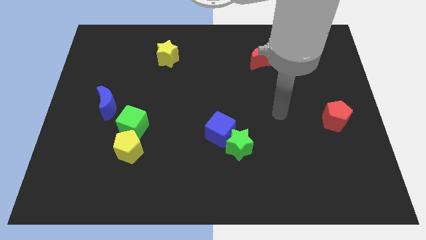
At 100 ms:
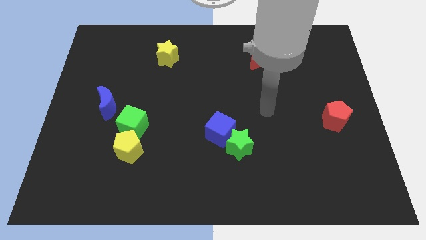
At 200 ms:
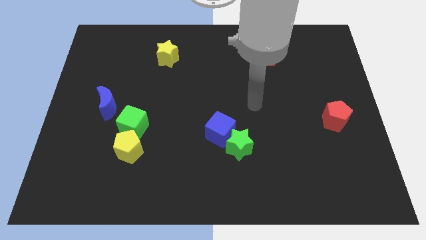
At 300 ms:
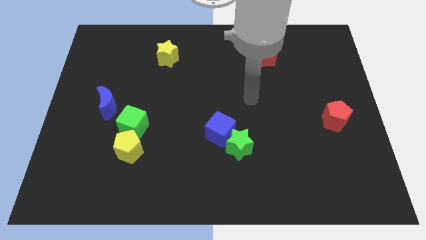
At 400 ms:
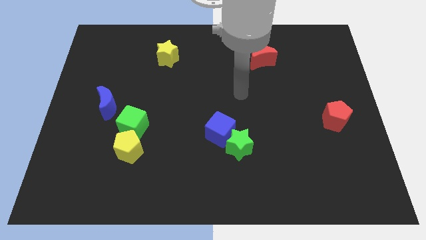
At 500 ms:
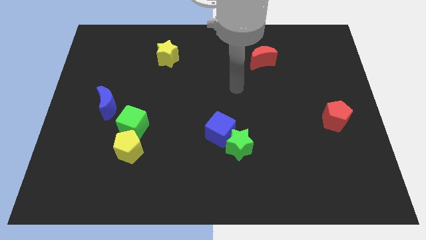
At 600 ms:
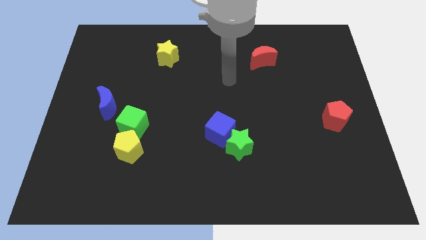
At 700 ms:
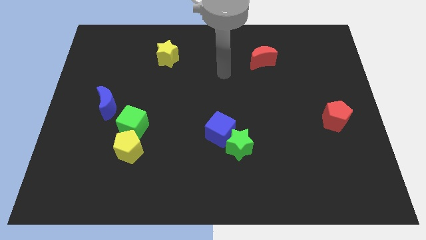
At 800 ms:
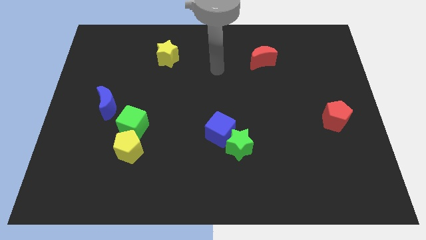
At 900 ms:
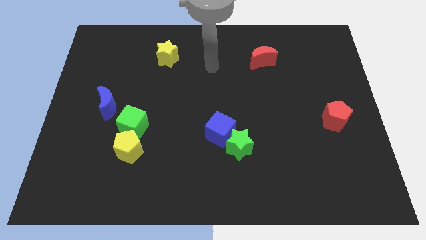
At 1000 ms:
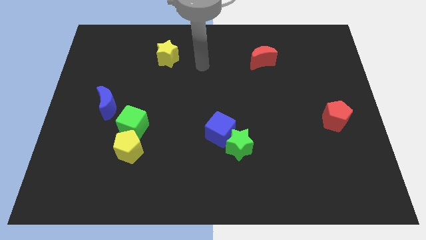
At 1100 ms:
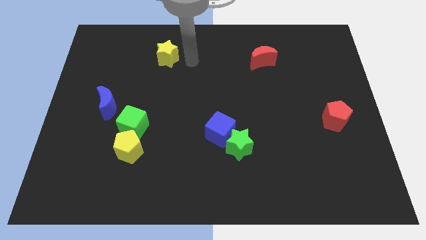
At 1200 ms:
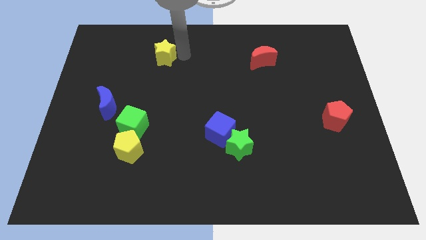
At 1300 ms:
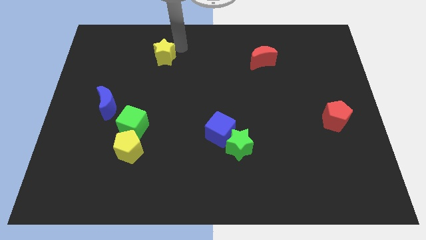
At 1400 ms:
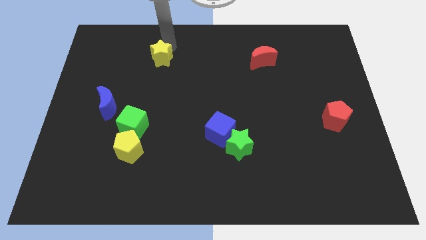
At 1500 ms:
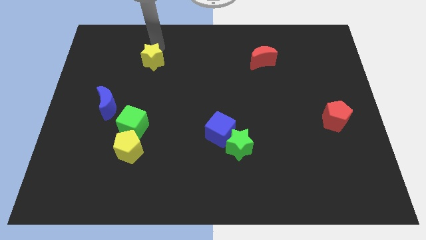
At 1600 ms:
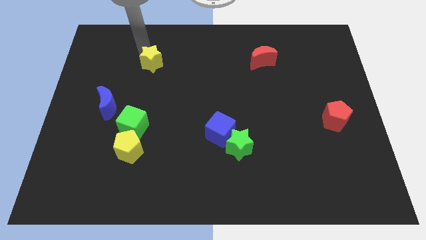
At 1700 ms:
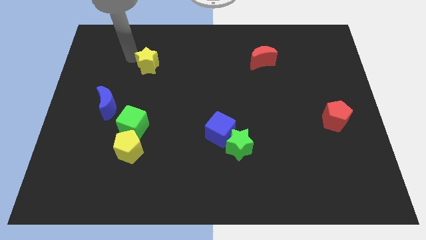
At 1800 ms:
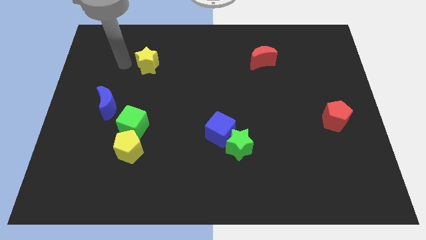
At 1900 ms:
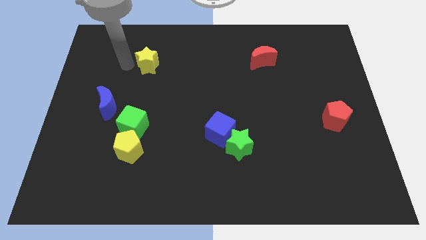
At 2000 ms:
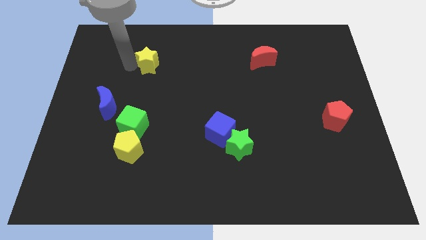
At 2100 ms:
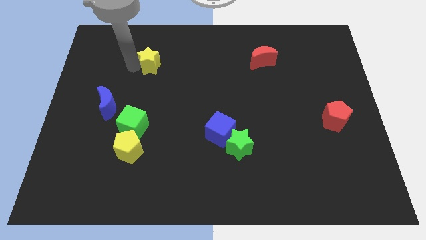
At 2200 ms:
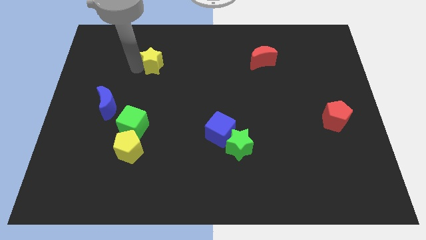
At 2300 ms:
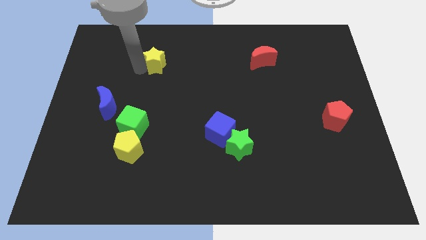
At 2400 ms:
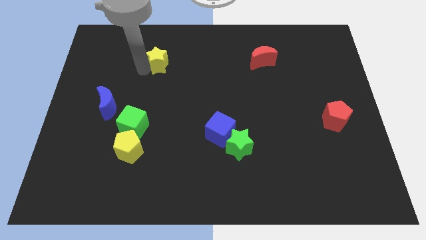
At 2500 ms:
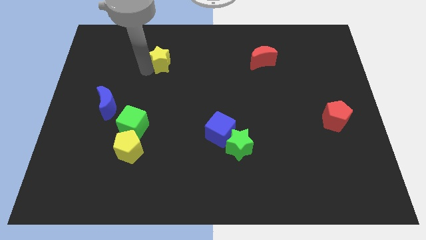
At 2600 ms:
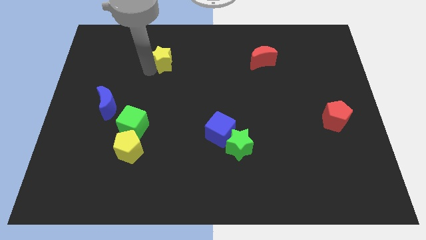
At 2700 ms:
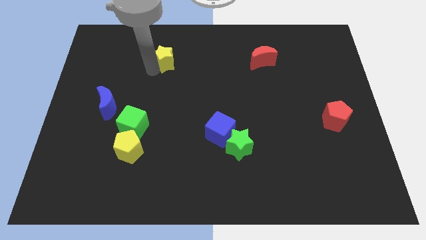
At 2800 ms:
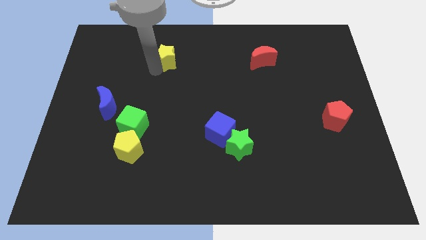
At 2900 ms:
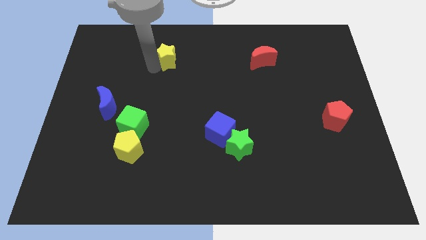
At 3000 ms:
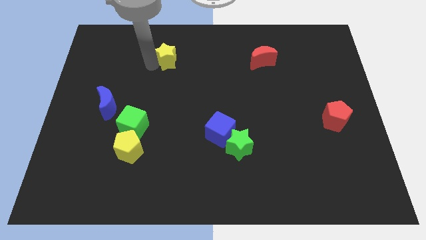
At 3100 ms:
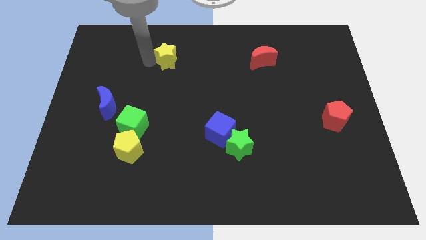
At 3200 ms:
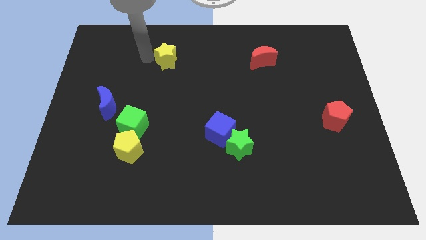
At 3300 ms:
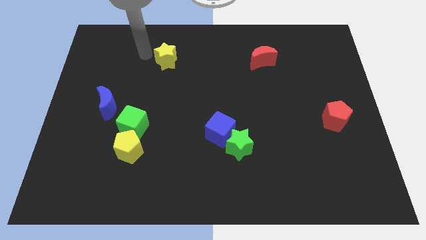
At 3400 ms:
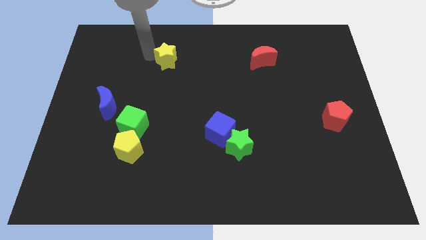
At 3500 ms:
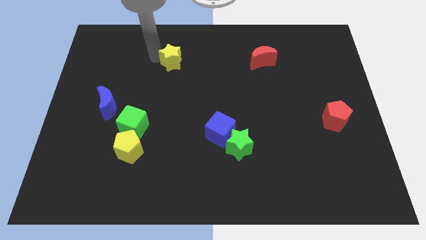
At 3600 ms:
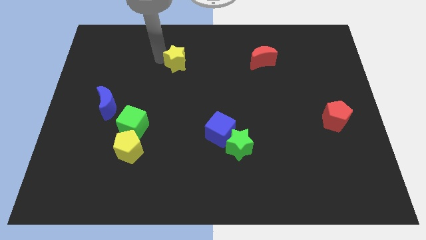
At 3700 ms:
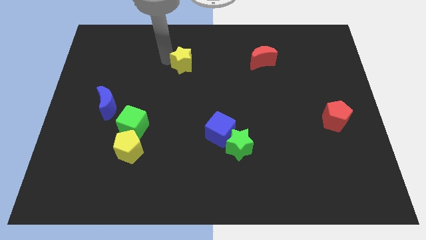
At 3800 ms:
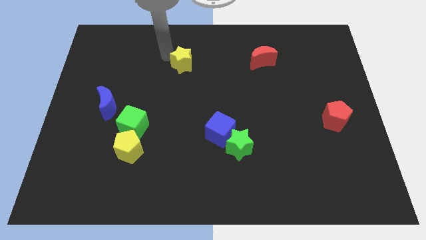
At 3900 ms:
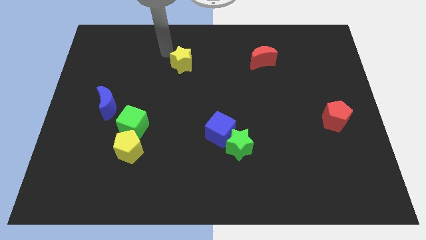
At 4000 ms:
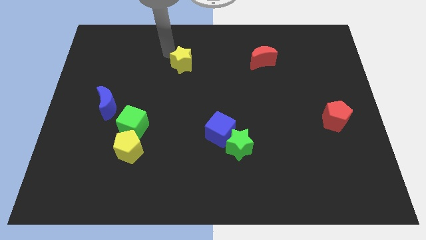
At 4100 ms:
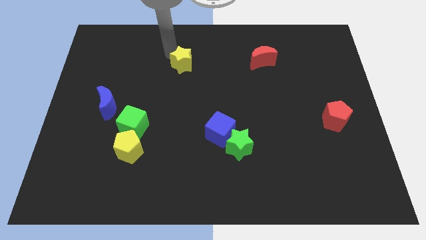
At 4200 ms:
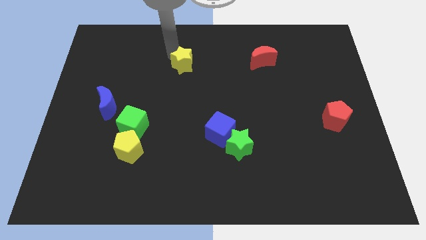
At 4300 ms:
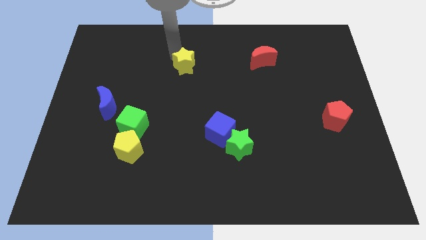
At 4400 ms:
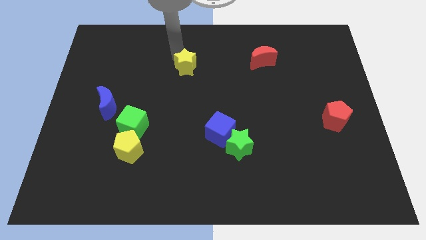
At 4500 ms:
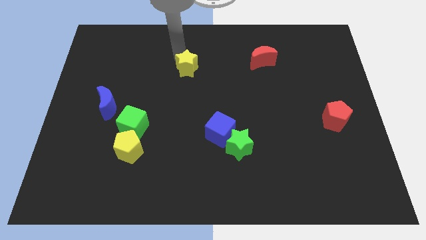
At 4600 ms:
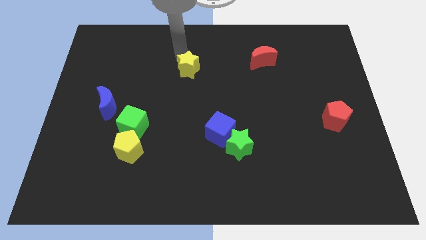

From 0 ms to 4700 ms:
slide the yellow star a bit down and then to the right

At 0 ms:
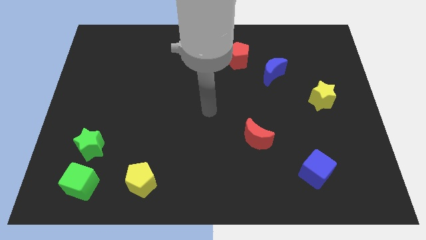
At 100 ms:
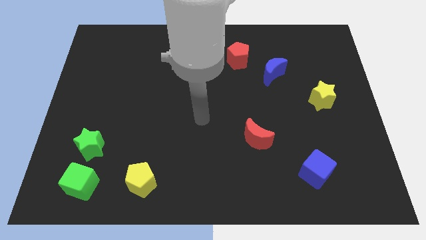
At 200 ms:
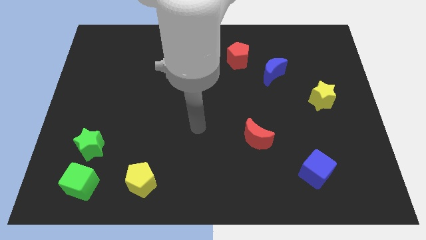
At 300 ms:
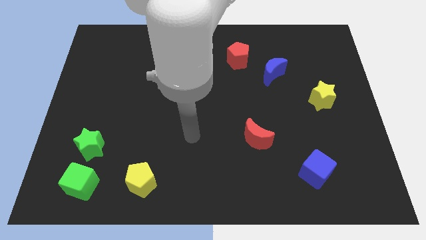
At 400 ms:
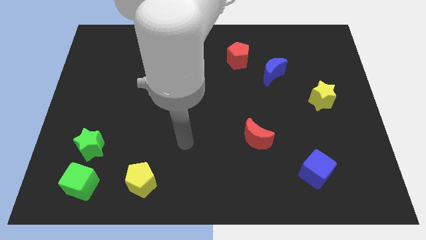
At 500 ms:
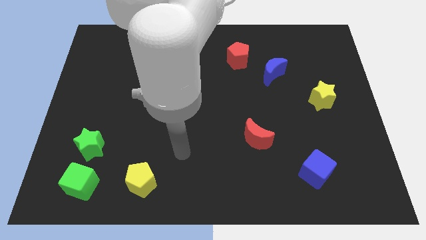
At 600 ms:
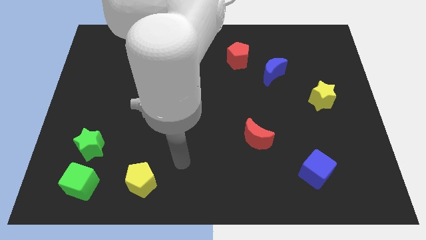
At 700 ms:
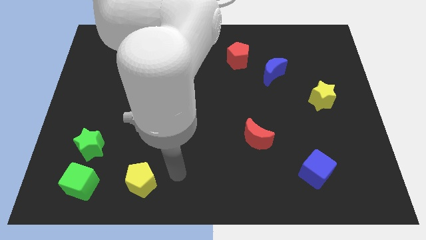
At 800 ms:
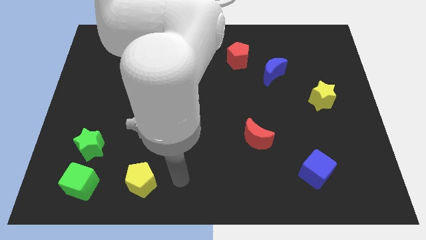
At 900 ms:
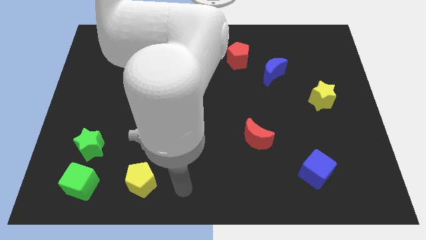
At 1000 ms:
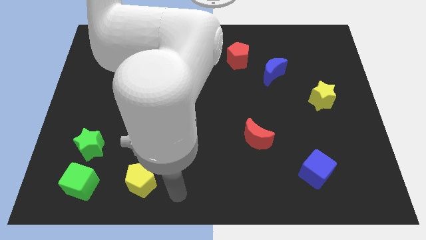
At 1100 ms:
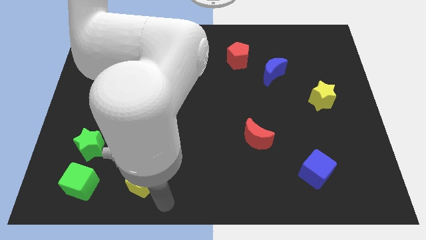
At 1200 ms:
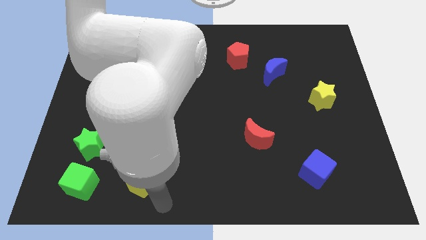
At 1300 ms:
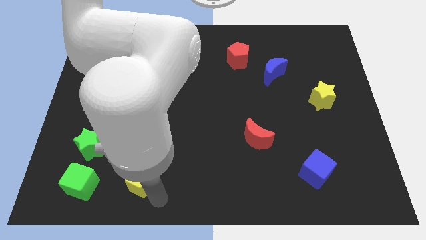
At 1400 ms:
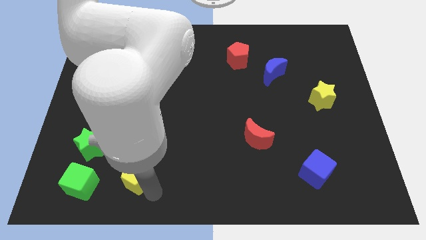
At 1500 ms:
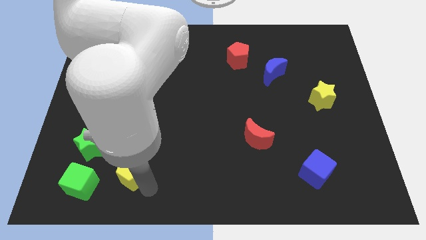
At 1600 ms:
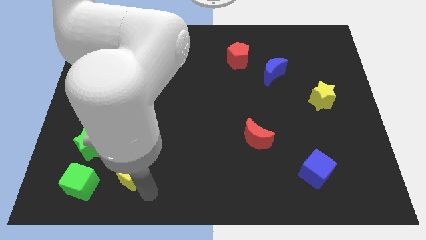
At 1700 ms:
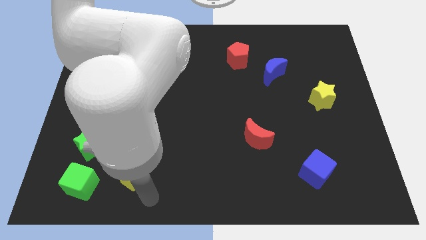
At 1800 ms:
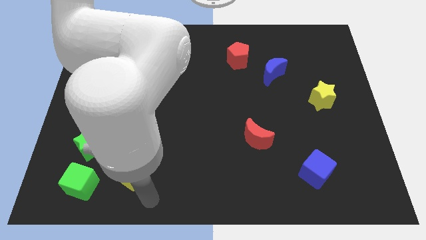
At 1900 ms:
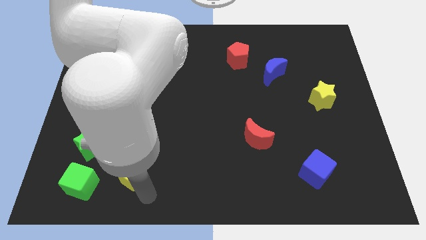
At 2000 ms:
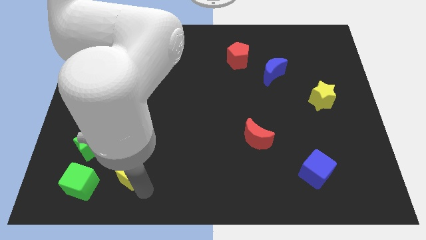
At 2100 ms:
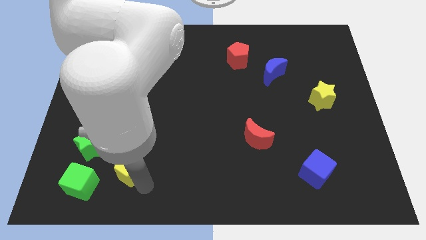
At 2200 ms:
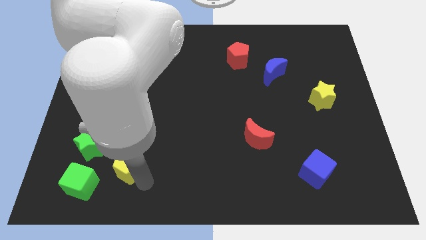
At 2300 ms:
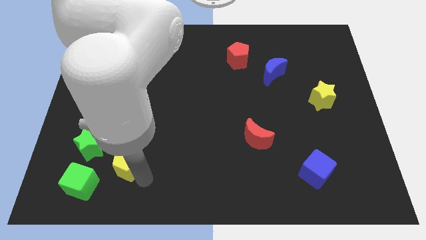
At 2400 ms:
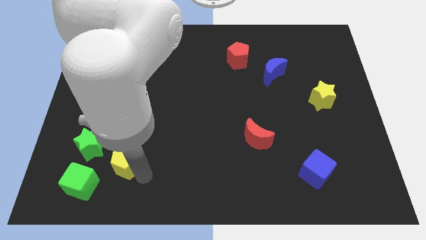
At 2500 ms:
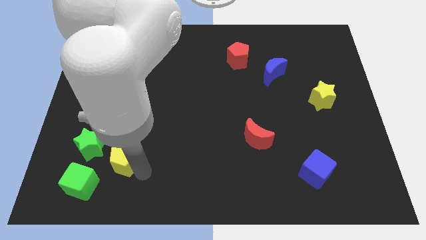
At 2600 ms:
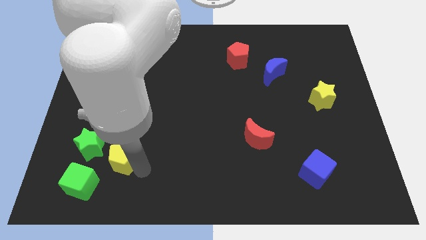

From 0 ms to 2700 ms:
slightly slide the yellow pentagon upwards and to the left

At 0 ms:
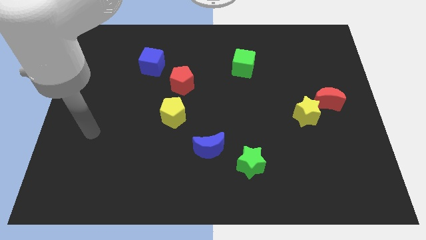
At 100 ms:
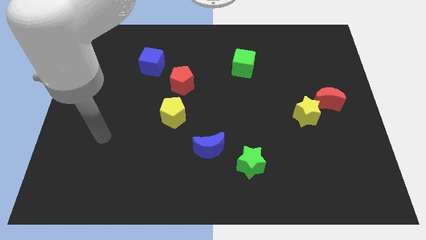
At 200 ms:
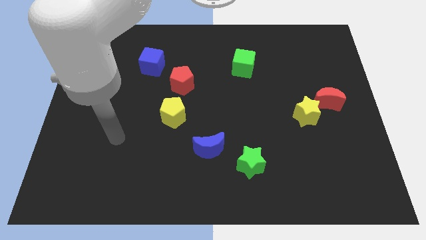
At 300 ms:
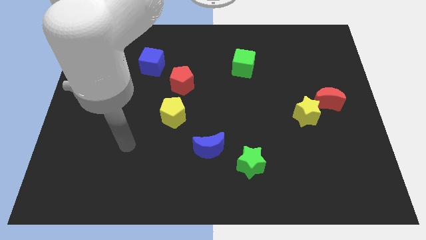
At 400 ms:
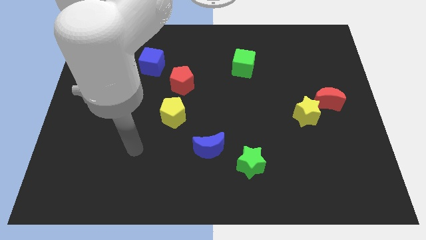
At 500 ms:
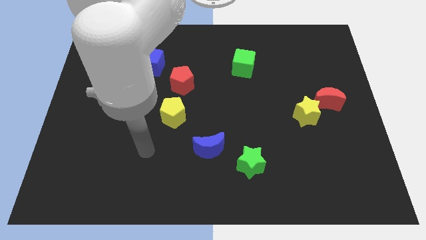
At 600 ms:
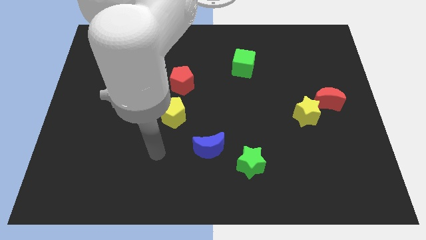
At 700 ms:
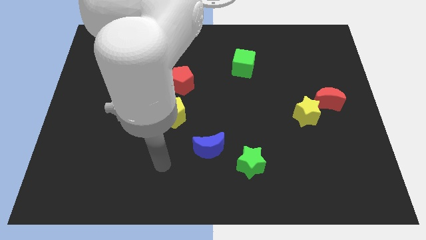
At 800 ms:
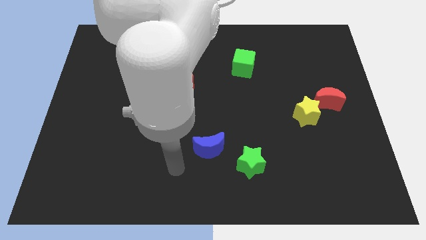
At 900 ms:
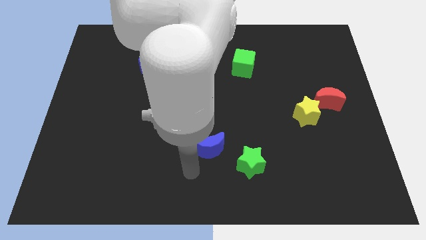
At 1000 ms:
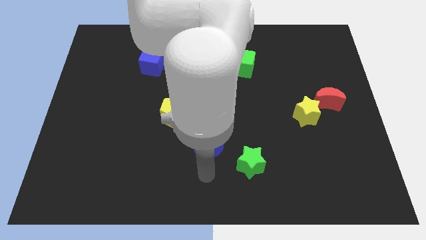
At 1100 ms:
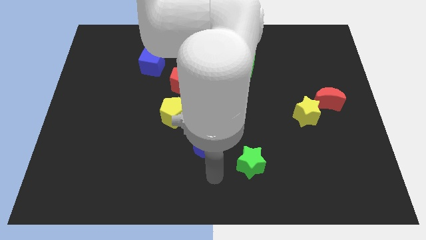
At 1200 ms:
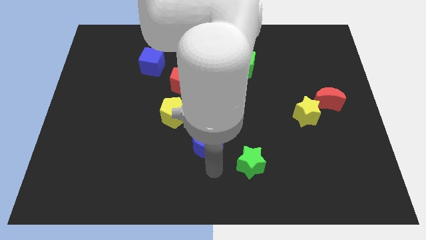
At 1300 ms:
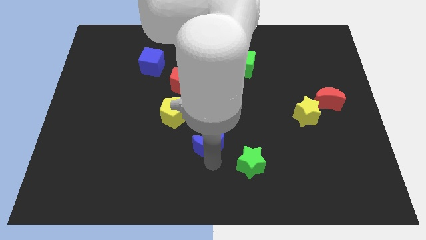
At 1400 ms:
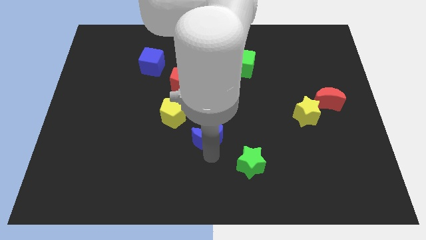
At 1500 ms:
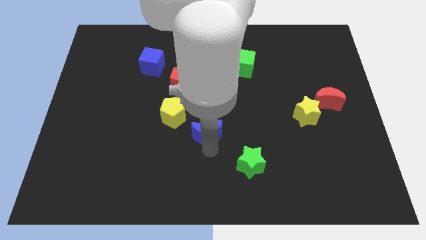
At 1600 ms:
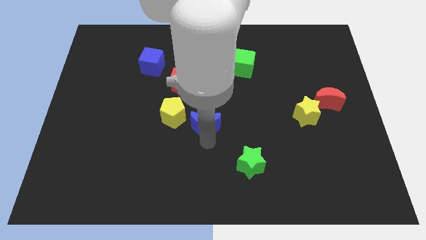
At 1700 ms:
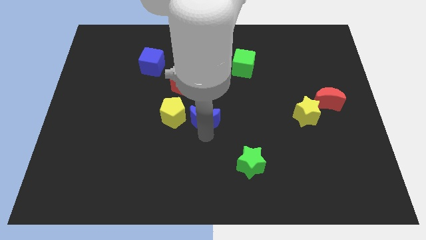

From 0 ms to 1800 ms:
slightly push the blue moon up
